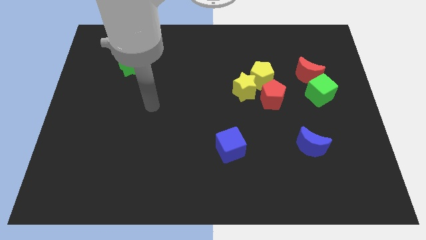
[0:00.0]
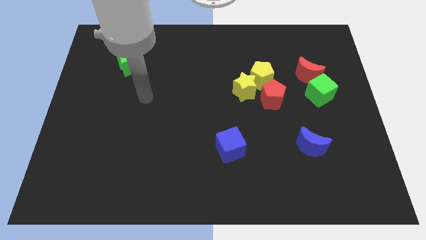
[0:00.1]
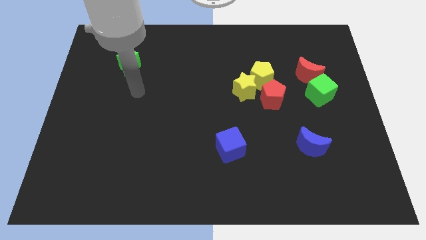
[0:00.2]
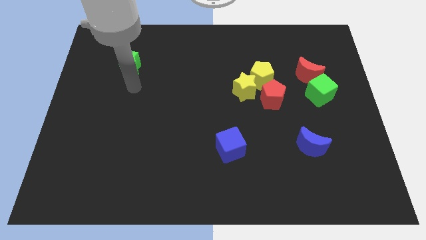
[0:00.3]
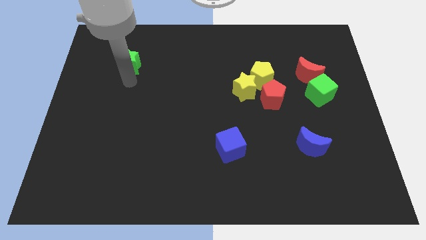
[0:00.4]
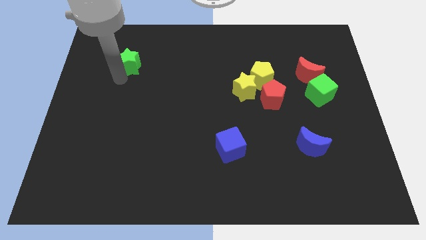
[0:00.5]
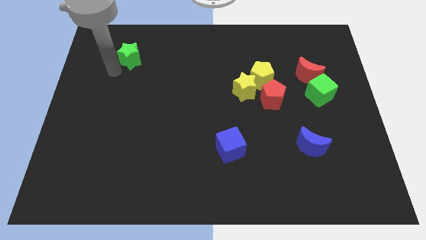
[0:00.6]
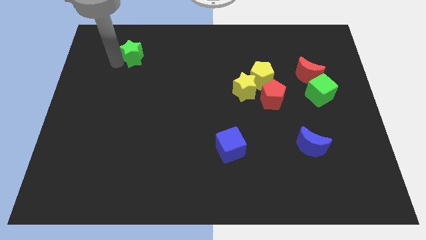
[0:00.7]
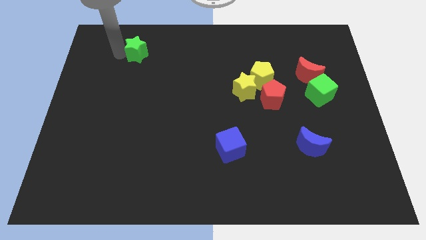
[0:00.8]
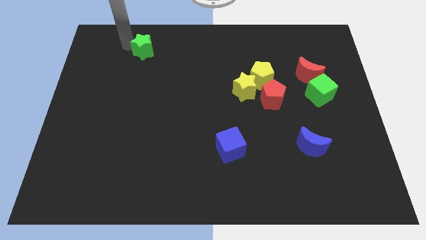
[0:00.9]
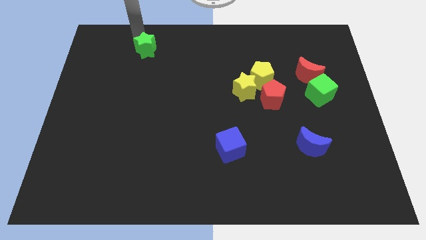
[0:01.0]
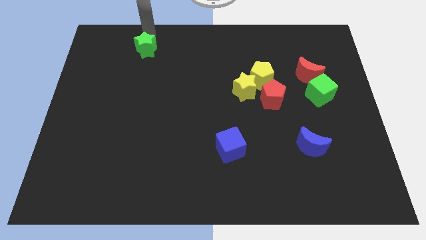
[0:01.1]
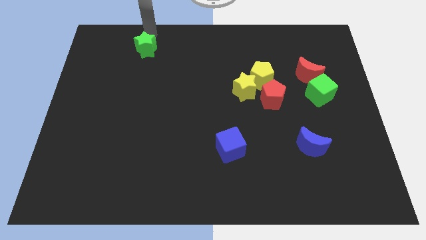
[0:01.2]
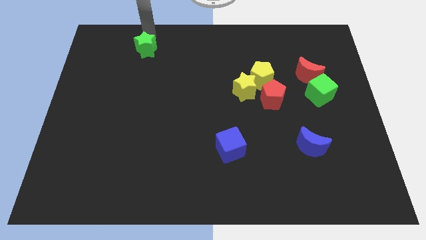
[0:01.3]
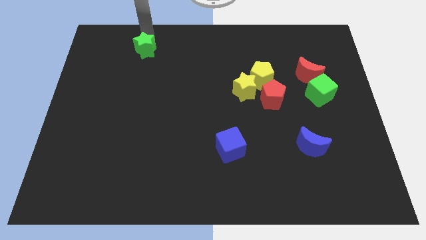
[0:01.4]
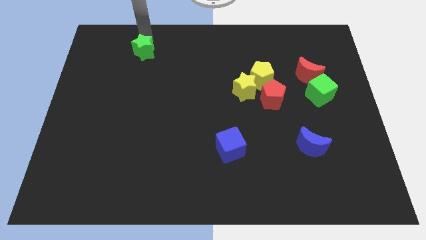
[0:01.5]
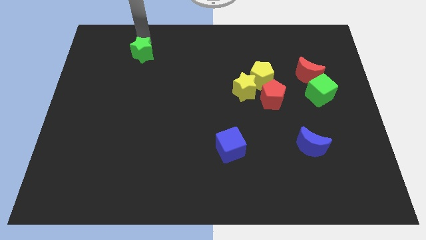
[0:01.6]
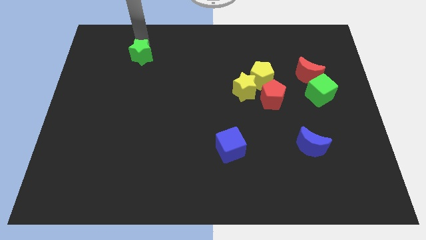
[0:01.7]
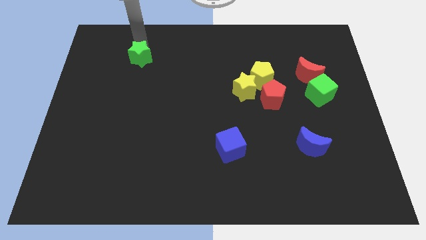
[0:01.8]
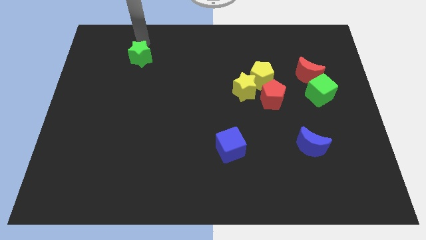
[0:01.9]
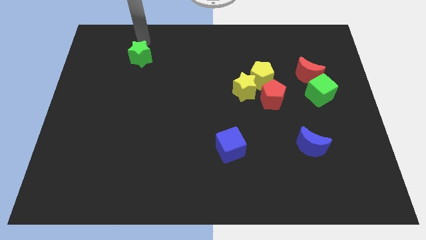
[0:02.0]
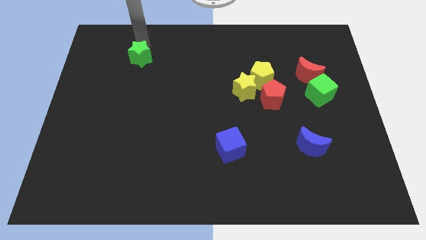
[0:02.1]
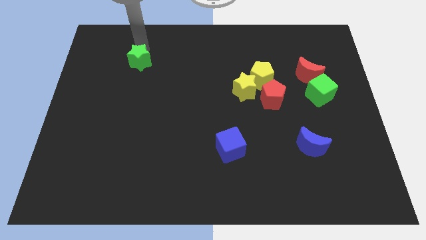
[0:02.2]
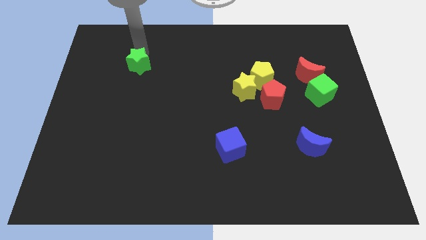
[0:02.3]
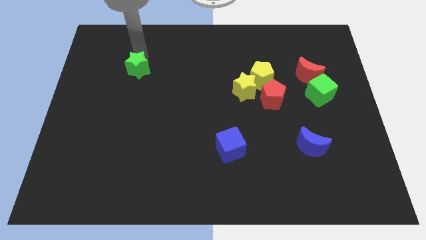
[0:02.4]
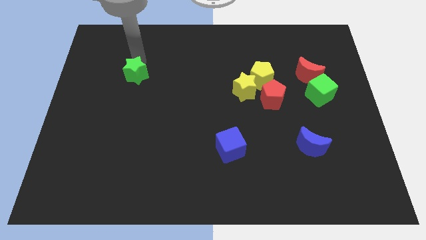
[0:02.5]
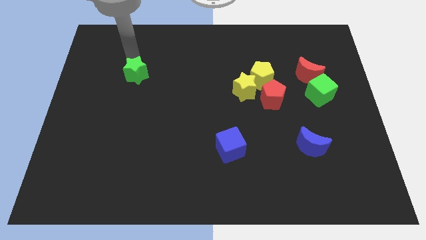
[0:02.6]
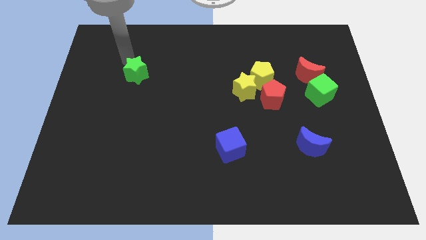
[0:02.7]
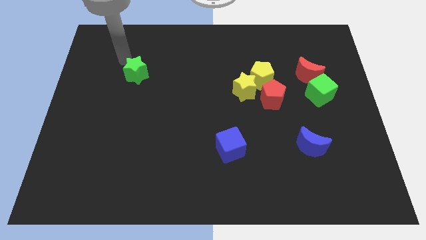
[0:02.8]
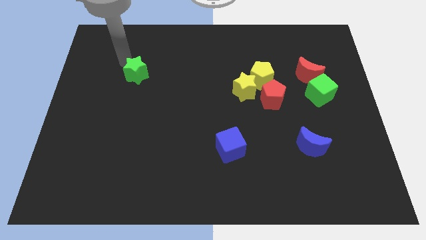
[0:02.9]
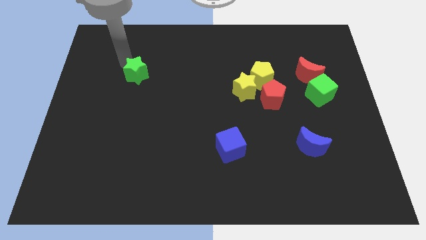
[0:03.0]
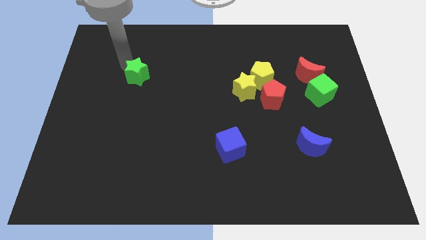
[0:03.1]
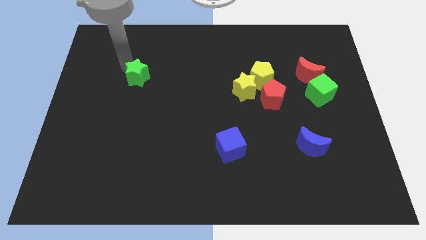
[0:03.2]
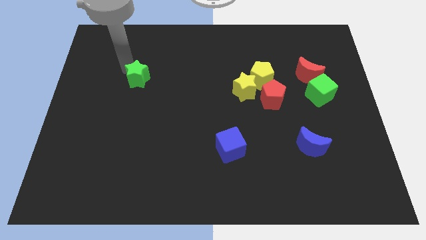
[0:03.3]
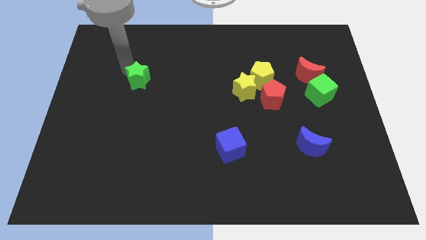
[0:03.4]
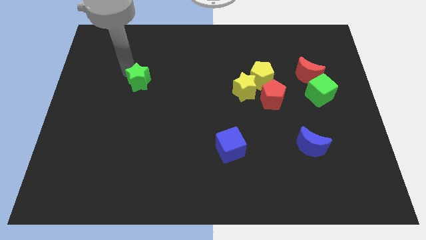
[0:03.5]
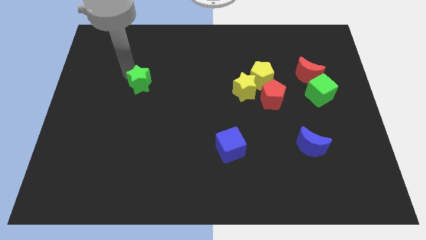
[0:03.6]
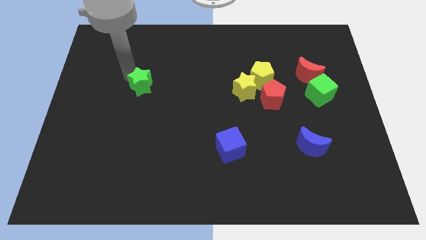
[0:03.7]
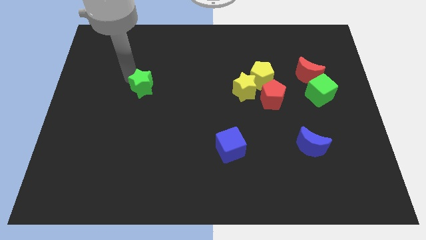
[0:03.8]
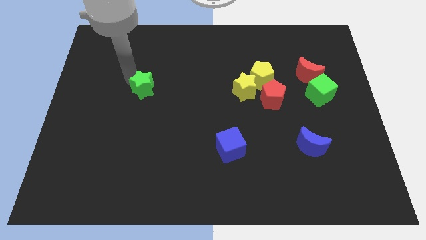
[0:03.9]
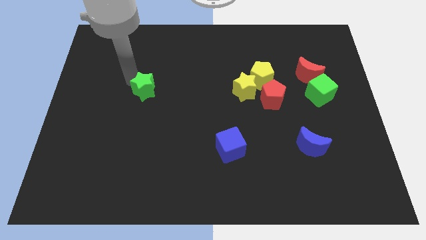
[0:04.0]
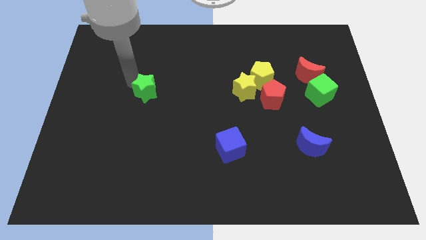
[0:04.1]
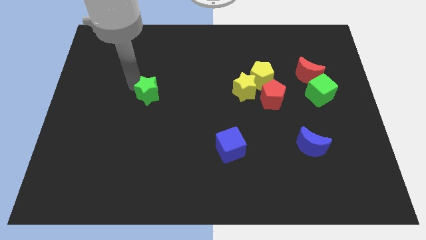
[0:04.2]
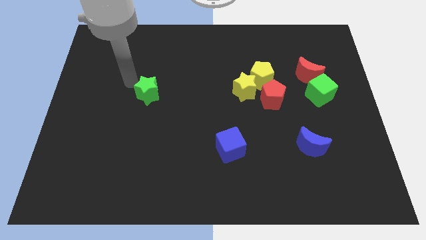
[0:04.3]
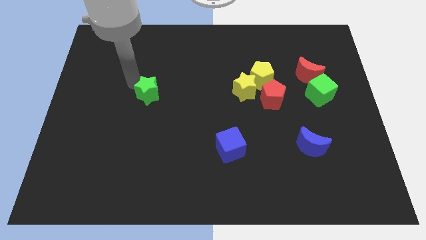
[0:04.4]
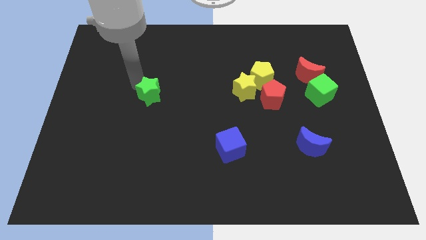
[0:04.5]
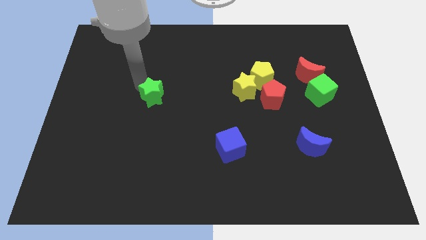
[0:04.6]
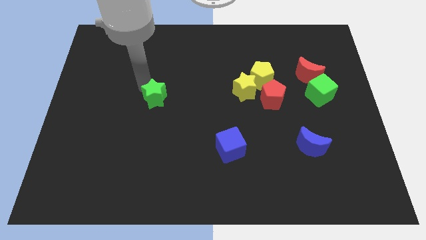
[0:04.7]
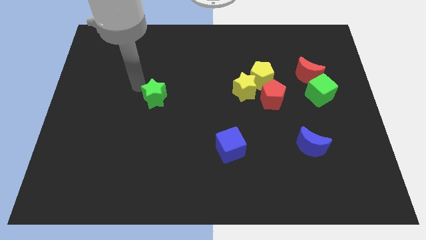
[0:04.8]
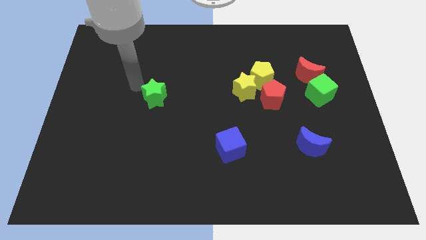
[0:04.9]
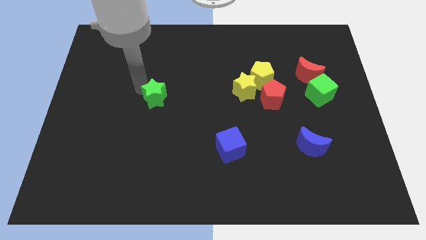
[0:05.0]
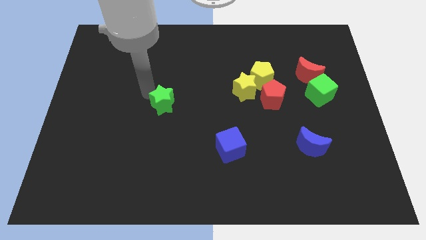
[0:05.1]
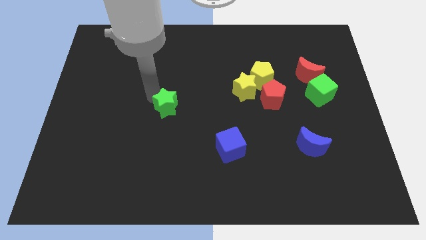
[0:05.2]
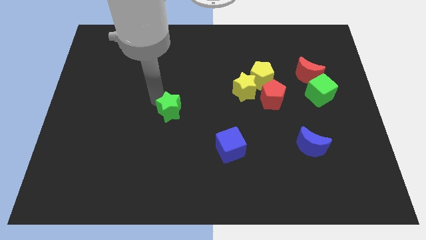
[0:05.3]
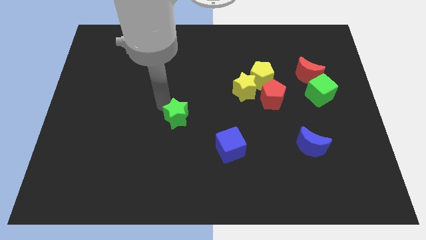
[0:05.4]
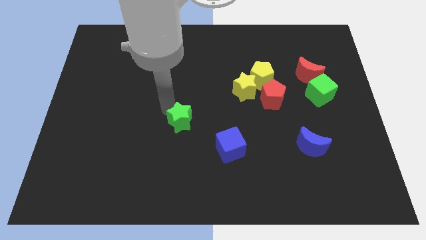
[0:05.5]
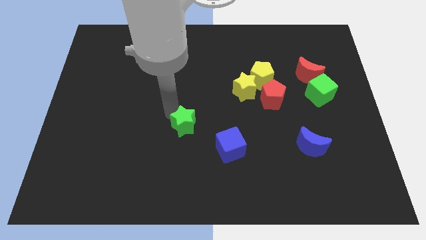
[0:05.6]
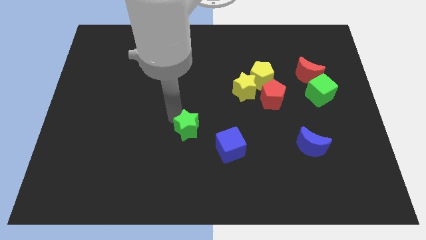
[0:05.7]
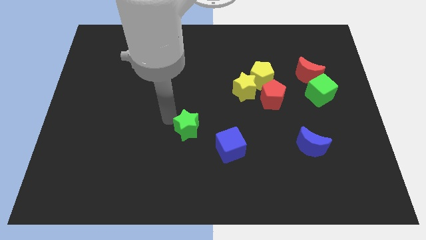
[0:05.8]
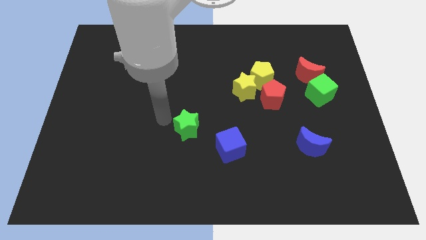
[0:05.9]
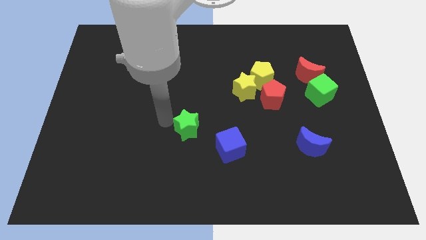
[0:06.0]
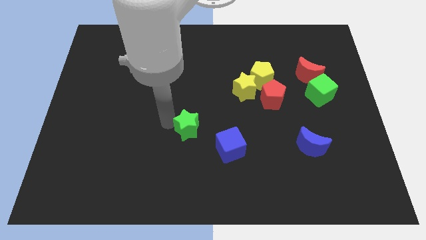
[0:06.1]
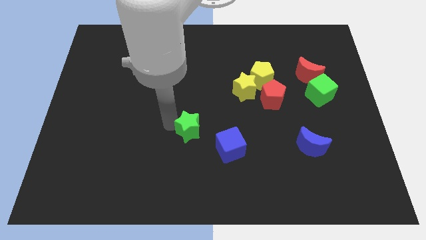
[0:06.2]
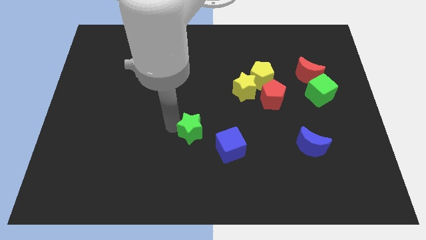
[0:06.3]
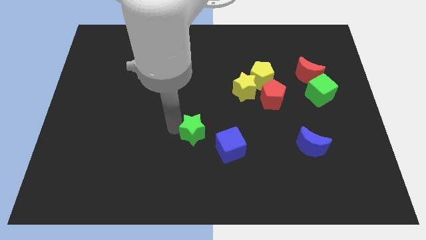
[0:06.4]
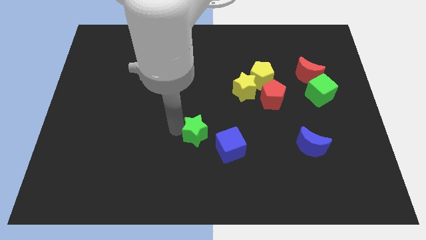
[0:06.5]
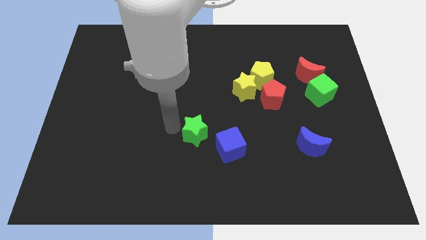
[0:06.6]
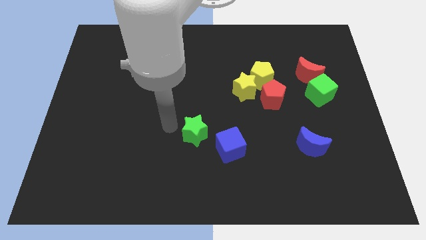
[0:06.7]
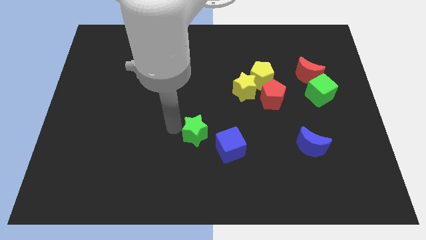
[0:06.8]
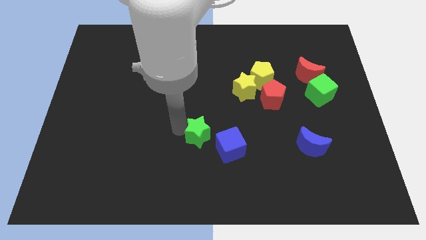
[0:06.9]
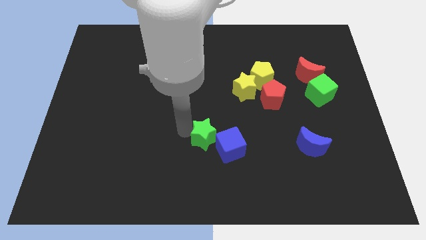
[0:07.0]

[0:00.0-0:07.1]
push the green star close to the blue cube

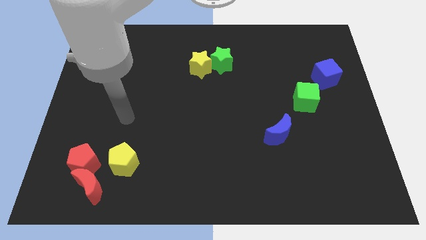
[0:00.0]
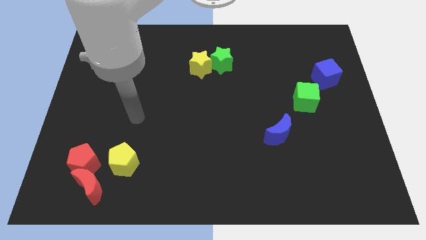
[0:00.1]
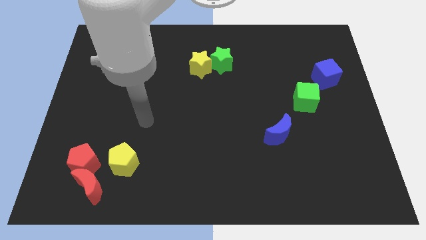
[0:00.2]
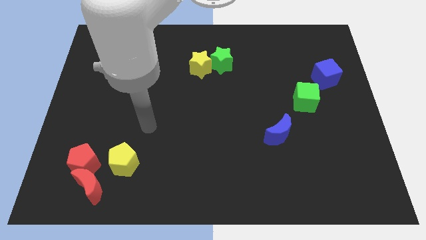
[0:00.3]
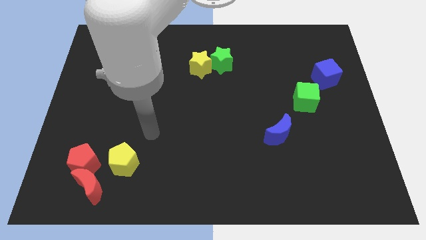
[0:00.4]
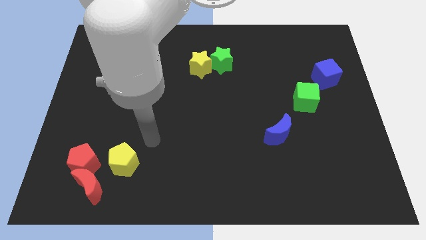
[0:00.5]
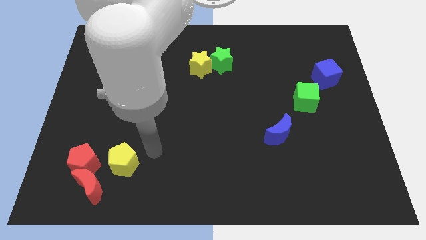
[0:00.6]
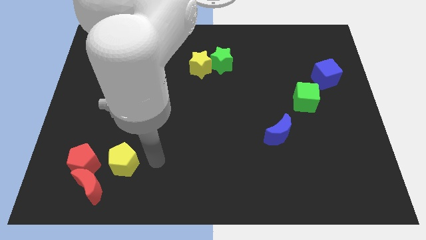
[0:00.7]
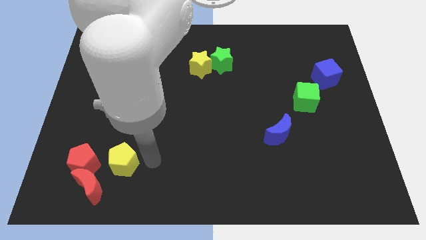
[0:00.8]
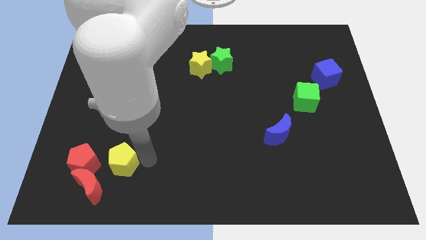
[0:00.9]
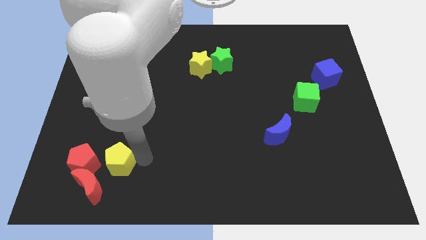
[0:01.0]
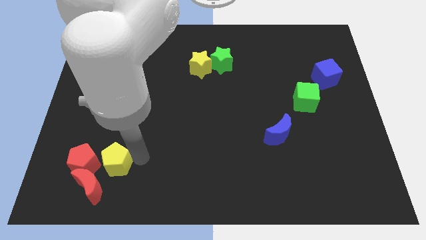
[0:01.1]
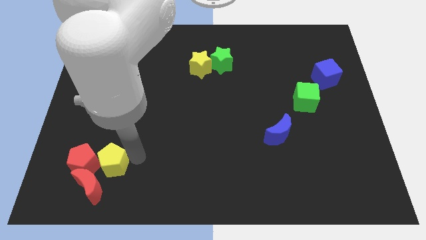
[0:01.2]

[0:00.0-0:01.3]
put the yellow pentagon towards the red pentagon
